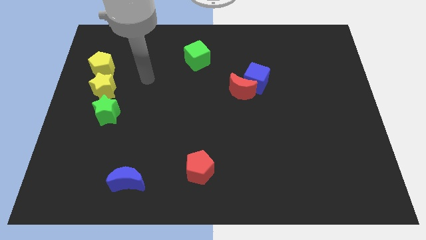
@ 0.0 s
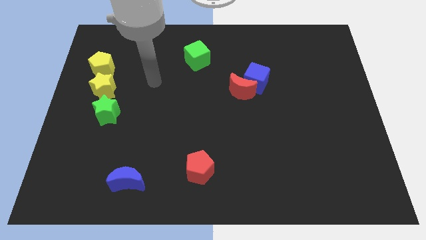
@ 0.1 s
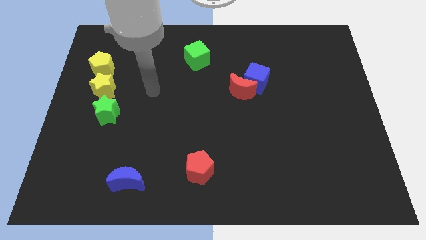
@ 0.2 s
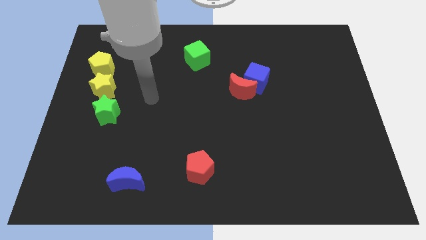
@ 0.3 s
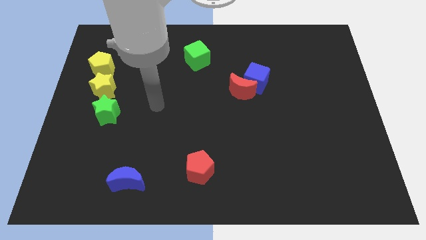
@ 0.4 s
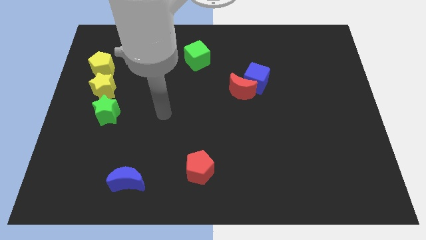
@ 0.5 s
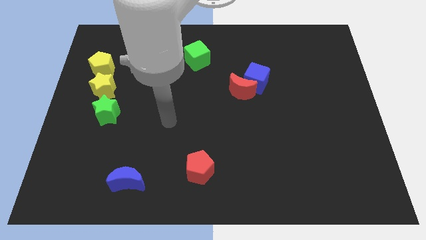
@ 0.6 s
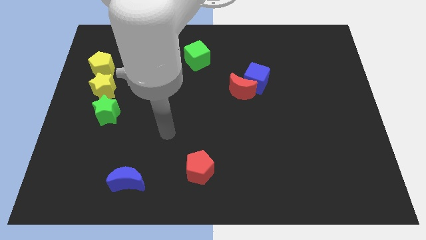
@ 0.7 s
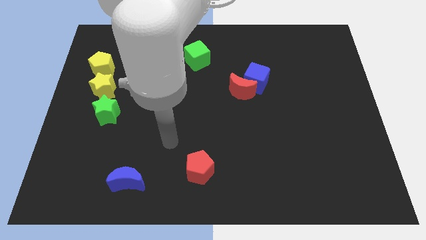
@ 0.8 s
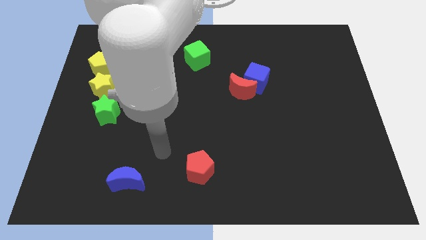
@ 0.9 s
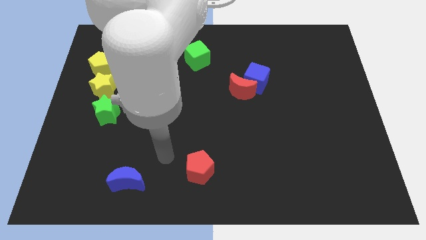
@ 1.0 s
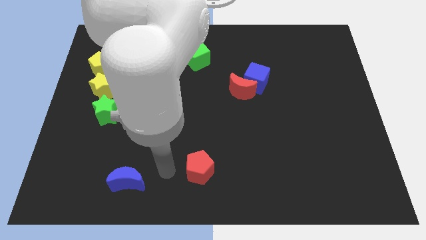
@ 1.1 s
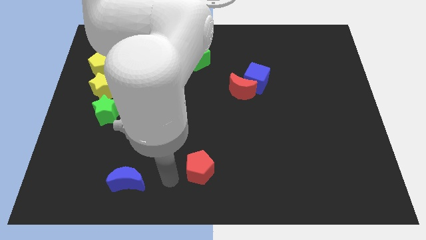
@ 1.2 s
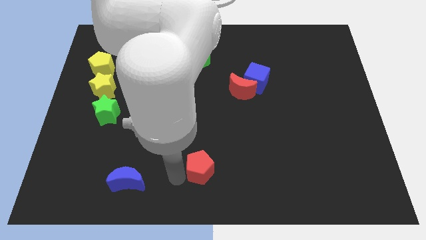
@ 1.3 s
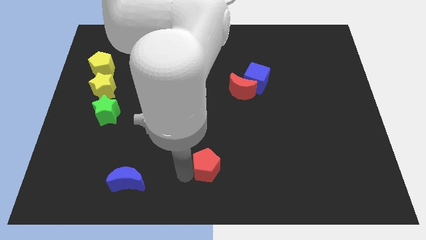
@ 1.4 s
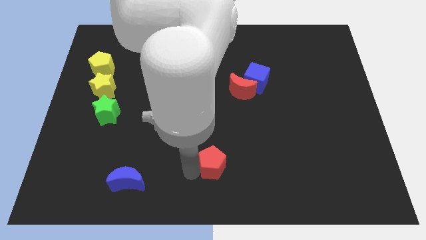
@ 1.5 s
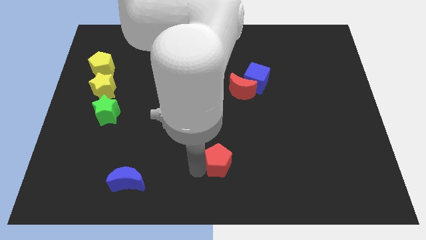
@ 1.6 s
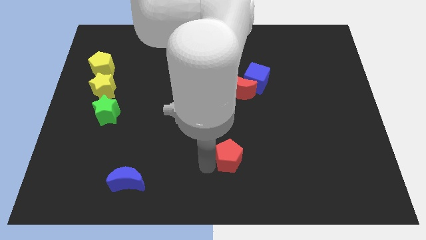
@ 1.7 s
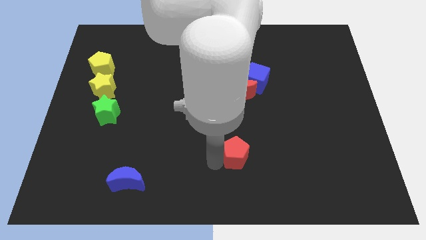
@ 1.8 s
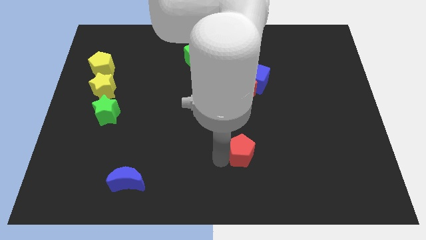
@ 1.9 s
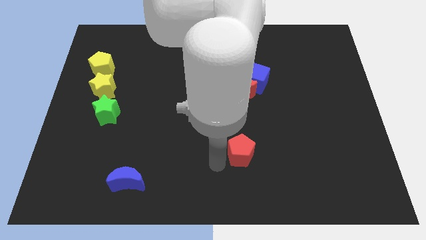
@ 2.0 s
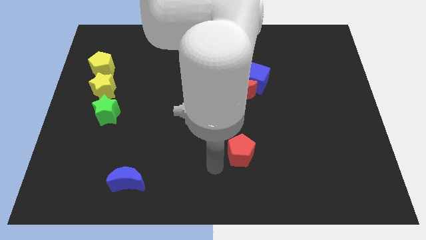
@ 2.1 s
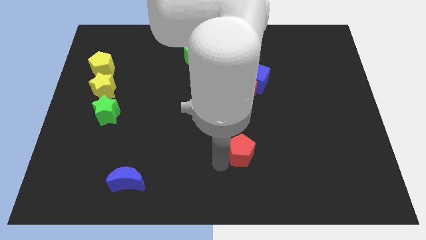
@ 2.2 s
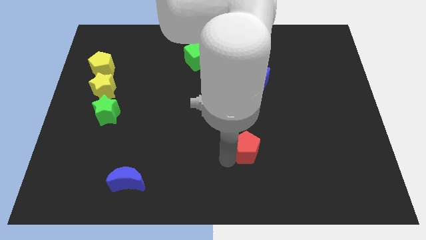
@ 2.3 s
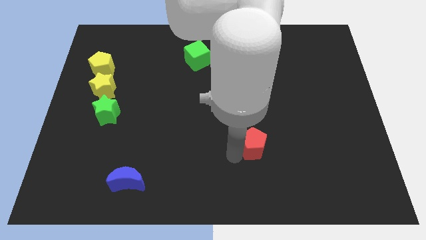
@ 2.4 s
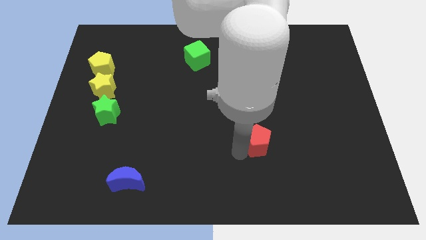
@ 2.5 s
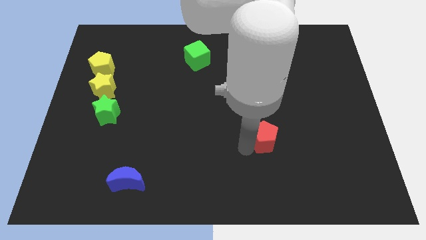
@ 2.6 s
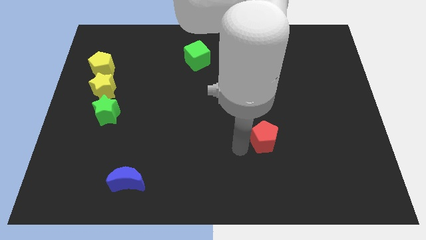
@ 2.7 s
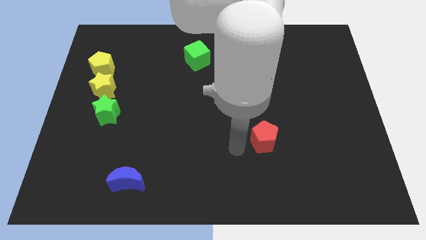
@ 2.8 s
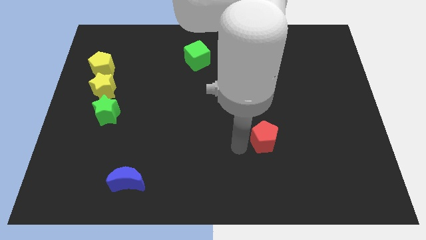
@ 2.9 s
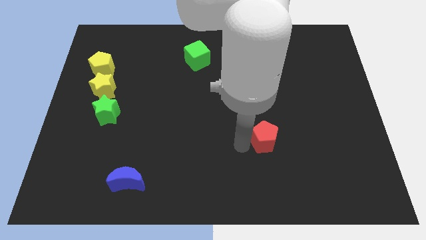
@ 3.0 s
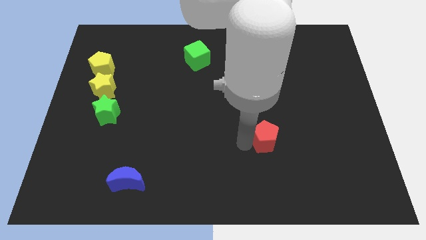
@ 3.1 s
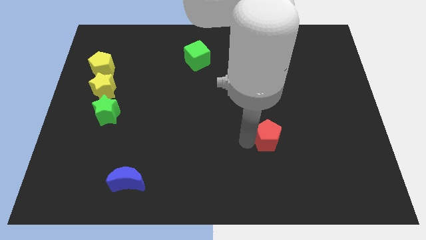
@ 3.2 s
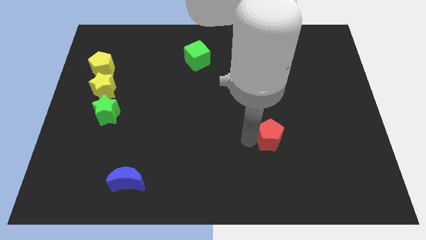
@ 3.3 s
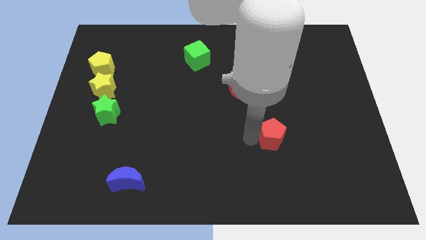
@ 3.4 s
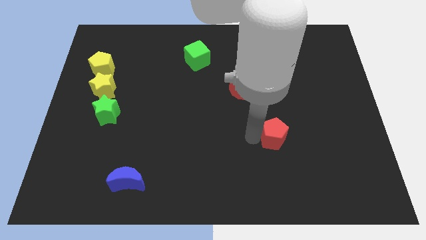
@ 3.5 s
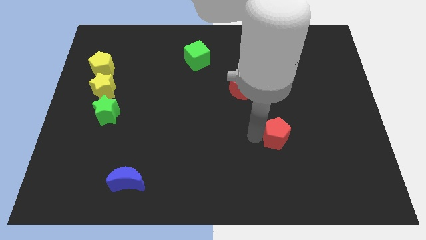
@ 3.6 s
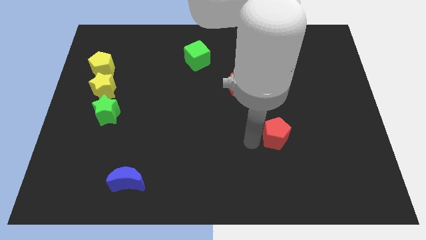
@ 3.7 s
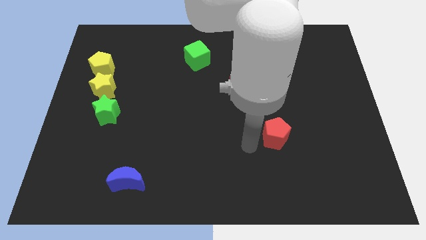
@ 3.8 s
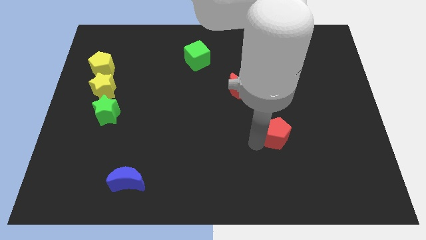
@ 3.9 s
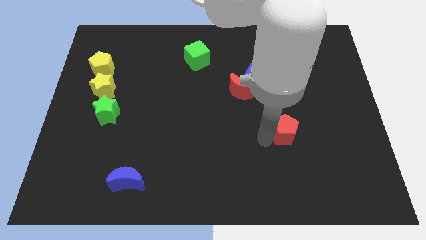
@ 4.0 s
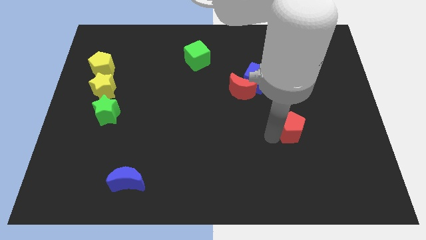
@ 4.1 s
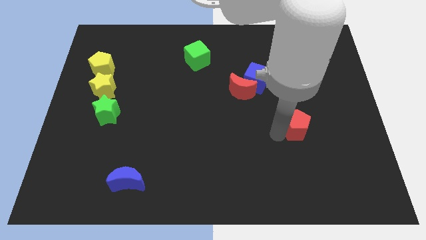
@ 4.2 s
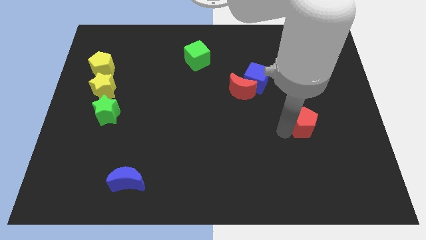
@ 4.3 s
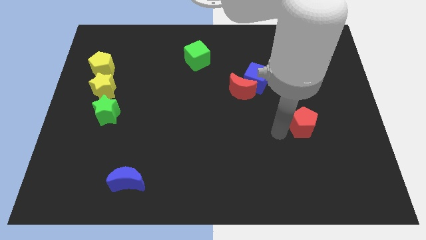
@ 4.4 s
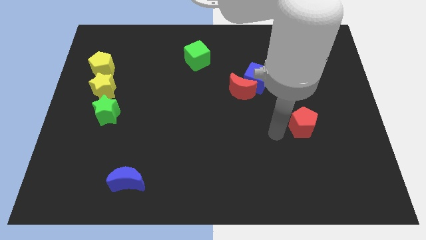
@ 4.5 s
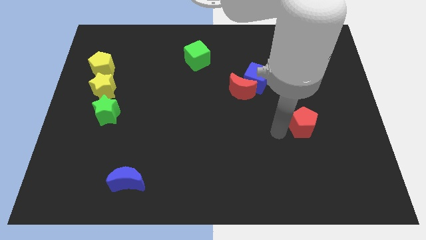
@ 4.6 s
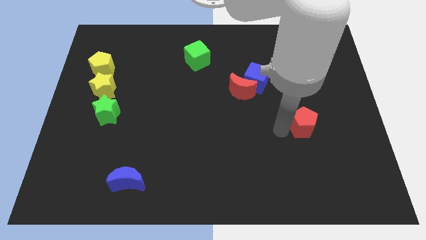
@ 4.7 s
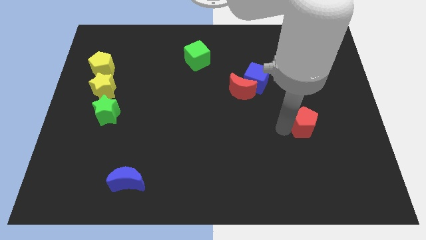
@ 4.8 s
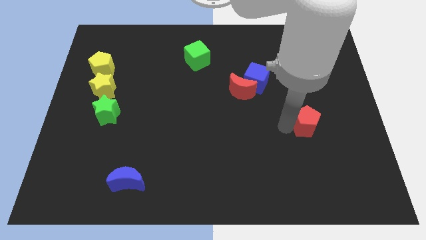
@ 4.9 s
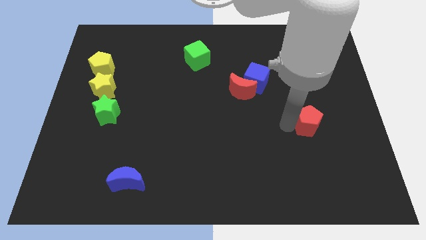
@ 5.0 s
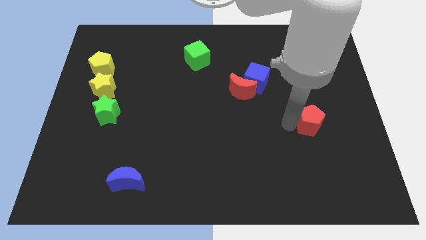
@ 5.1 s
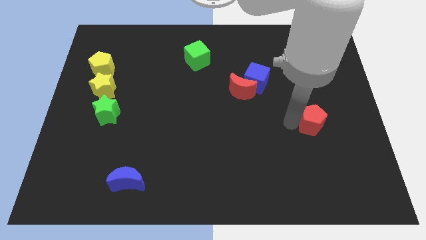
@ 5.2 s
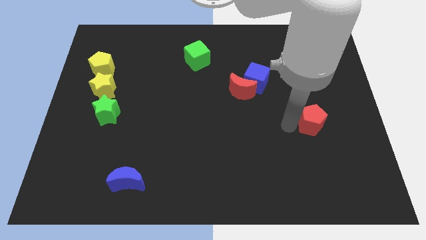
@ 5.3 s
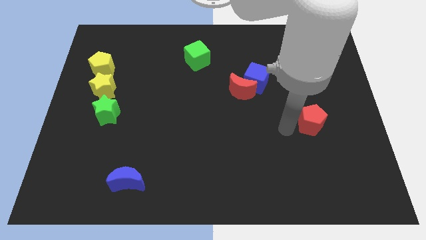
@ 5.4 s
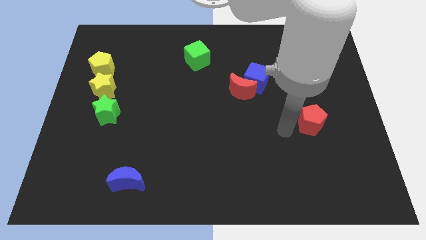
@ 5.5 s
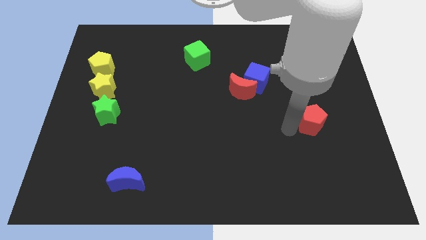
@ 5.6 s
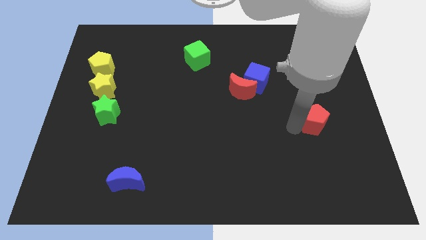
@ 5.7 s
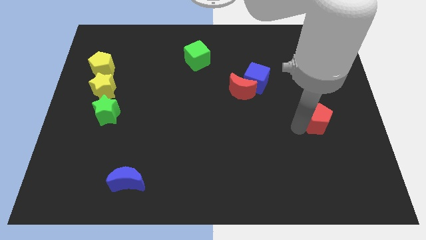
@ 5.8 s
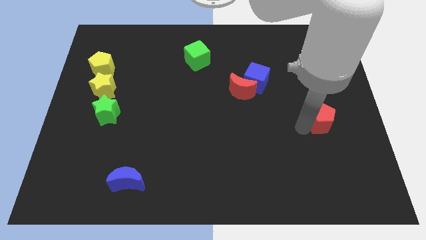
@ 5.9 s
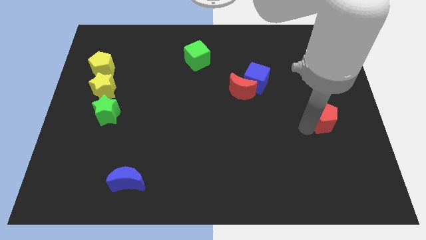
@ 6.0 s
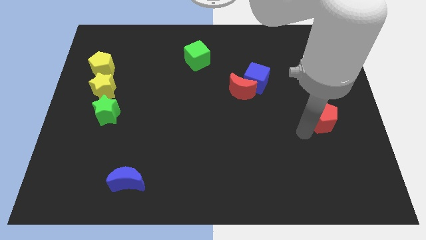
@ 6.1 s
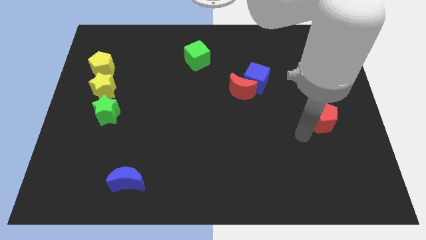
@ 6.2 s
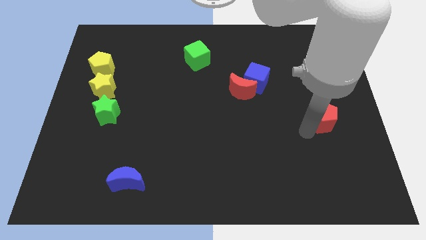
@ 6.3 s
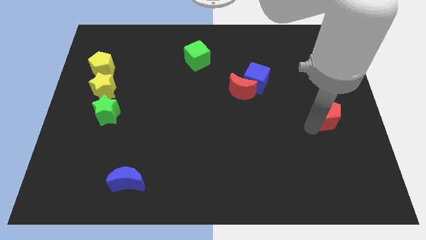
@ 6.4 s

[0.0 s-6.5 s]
put the red pentagon to the right side

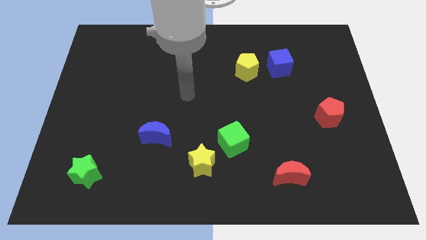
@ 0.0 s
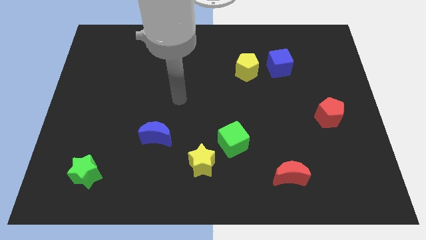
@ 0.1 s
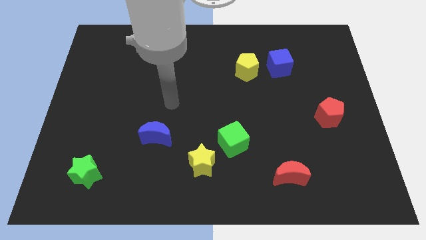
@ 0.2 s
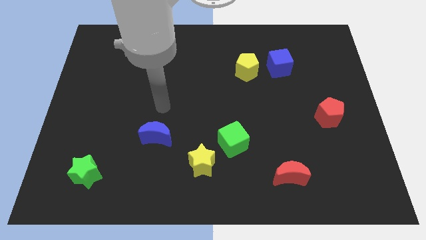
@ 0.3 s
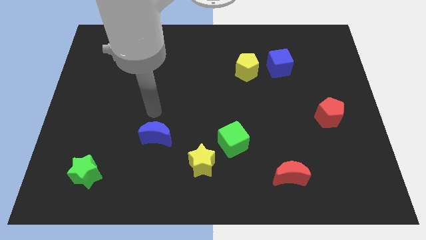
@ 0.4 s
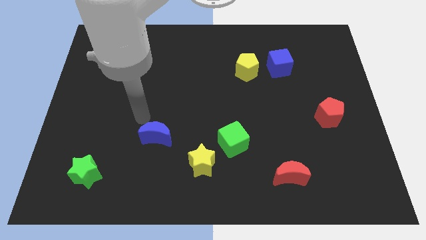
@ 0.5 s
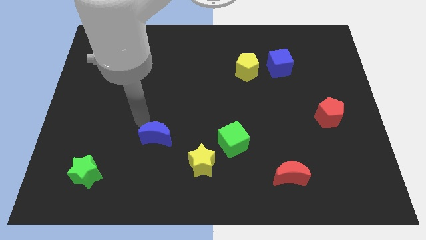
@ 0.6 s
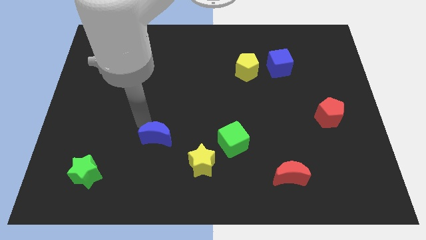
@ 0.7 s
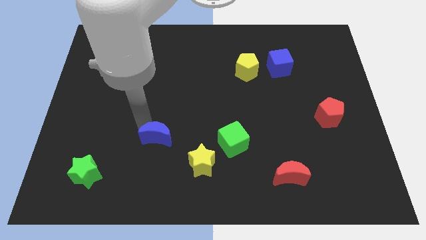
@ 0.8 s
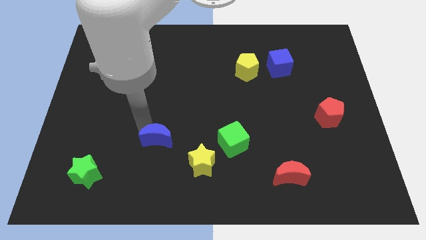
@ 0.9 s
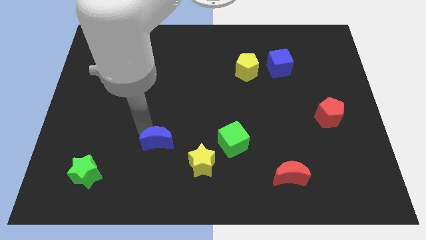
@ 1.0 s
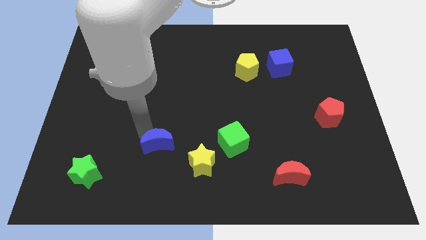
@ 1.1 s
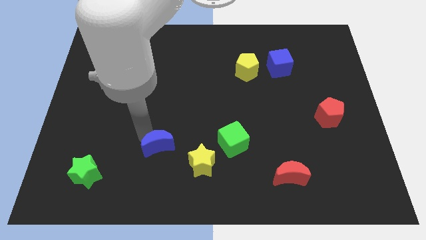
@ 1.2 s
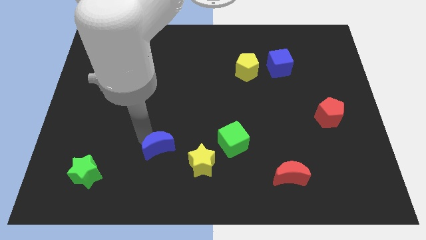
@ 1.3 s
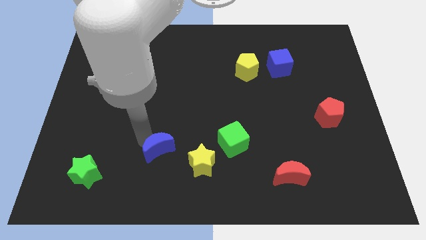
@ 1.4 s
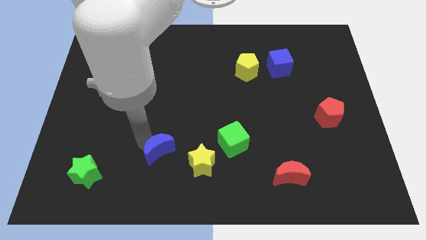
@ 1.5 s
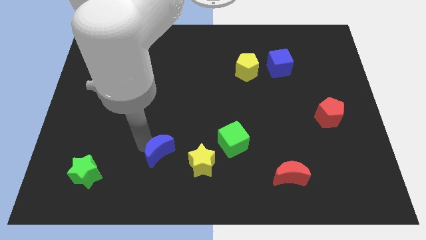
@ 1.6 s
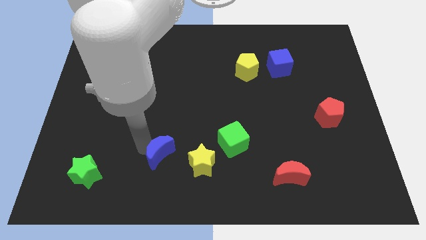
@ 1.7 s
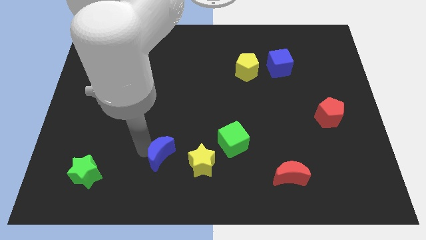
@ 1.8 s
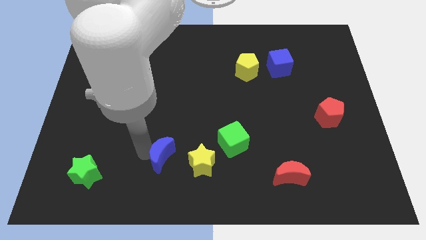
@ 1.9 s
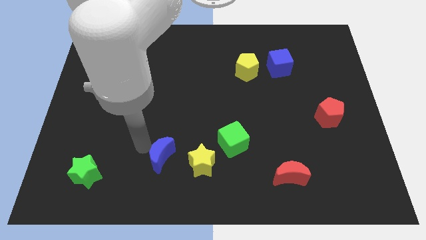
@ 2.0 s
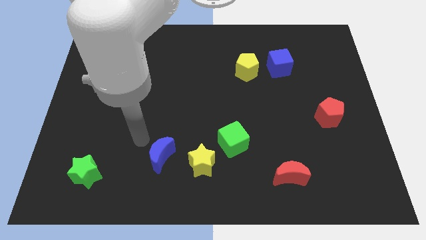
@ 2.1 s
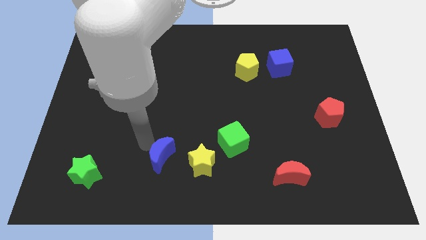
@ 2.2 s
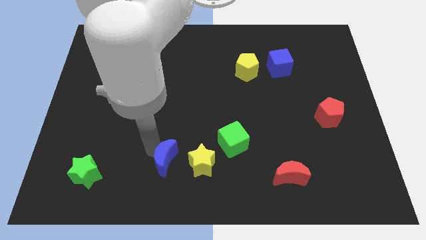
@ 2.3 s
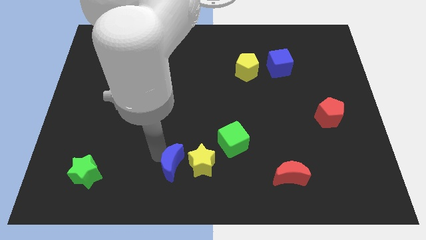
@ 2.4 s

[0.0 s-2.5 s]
push the blue moon to the bottom
